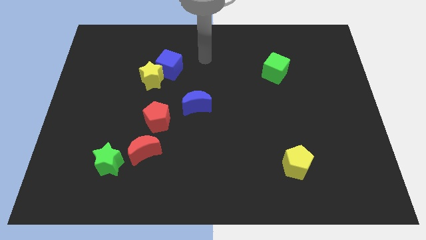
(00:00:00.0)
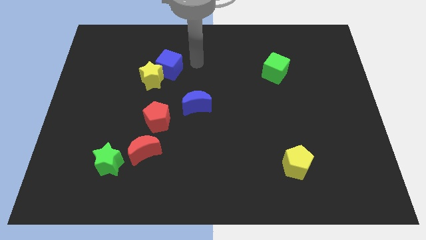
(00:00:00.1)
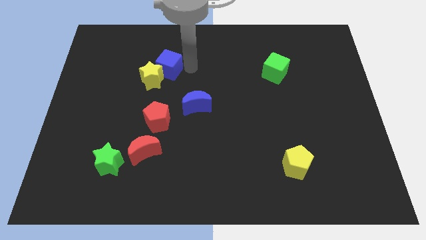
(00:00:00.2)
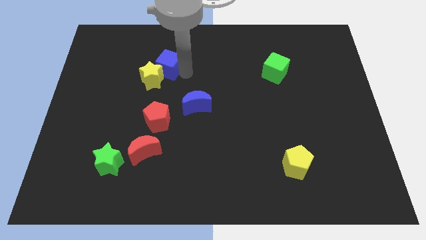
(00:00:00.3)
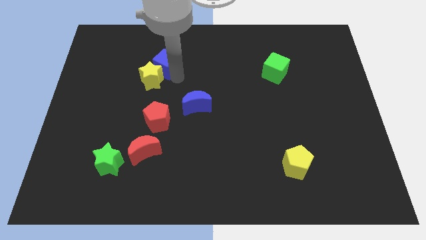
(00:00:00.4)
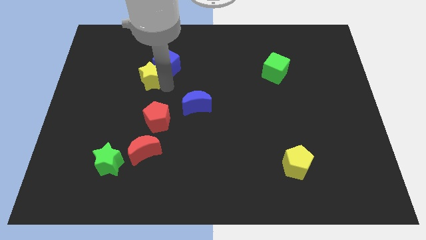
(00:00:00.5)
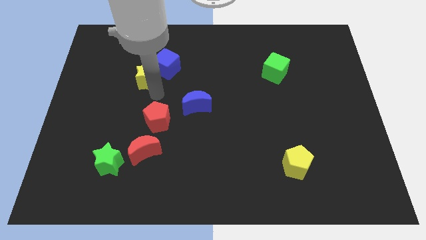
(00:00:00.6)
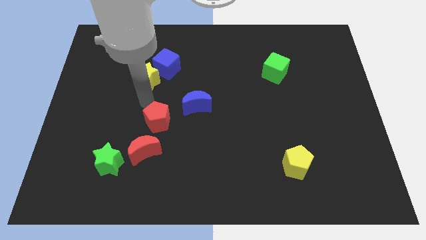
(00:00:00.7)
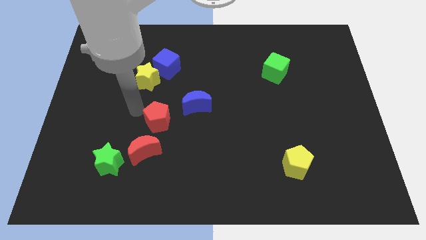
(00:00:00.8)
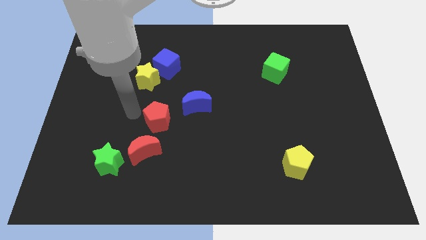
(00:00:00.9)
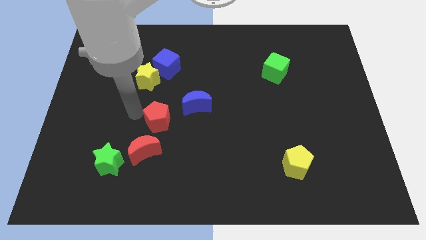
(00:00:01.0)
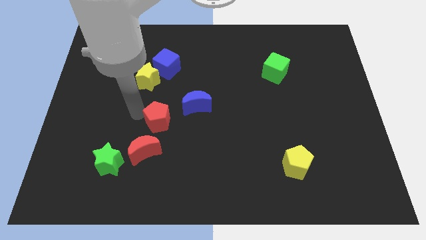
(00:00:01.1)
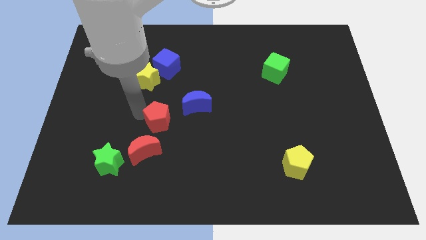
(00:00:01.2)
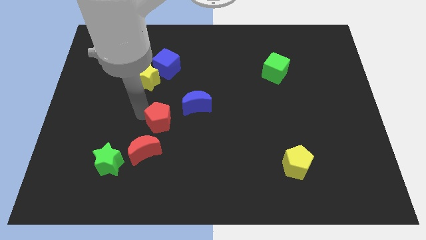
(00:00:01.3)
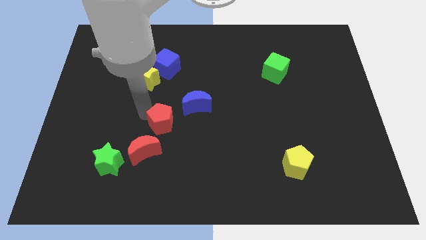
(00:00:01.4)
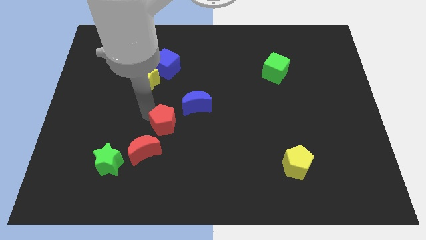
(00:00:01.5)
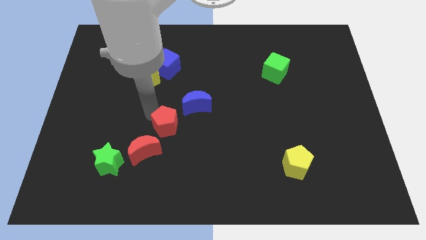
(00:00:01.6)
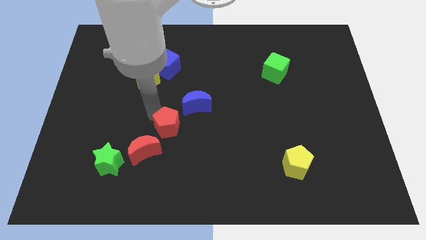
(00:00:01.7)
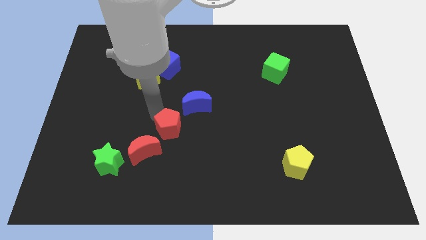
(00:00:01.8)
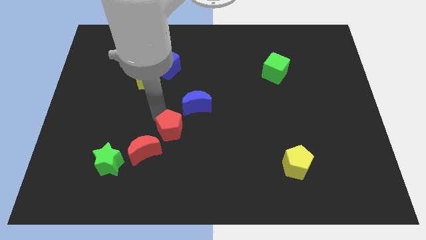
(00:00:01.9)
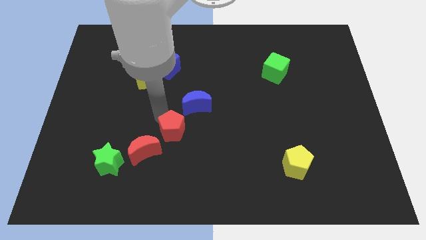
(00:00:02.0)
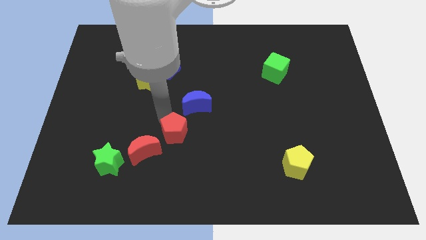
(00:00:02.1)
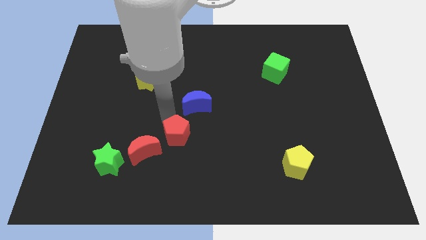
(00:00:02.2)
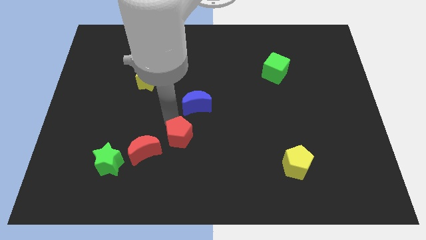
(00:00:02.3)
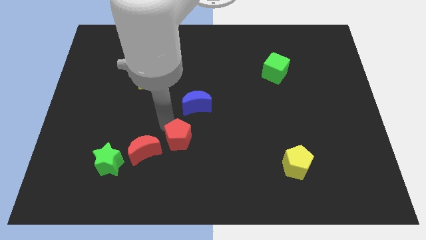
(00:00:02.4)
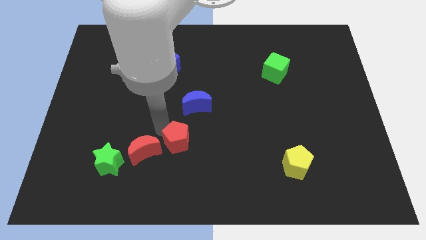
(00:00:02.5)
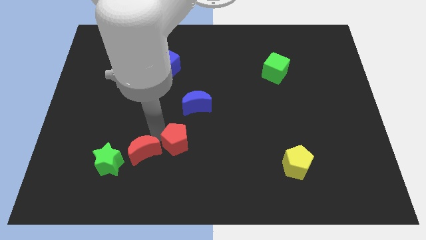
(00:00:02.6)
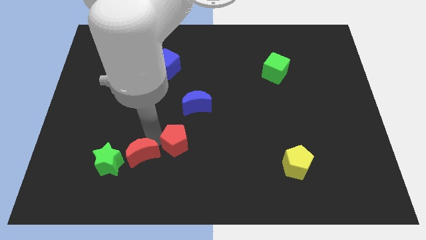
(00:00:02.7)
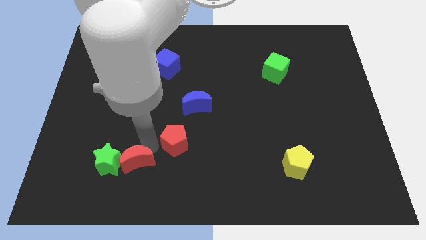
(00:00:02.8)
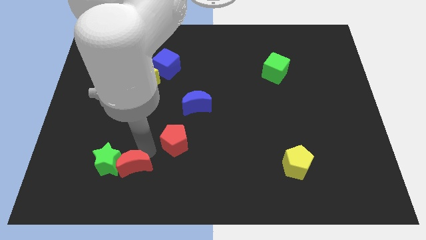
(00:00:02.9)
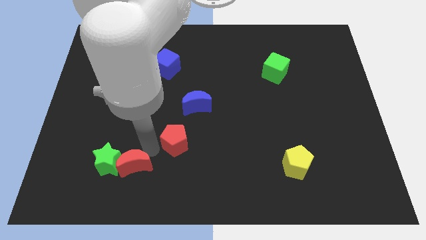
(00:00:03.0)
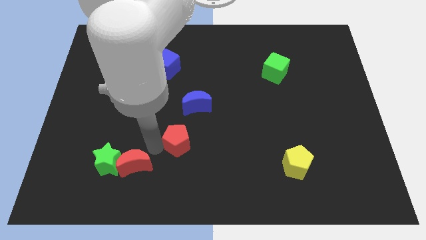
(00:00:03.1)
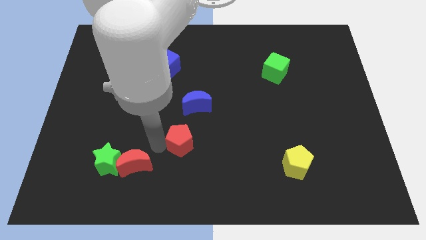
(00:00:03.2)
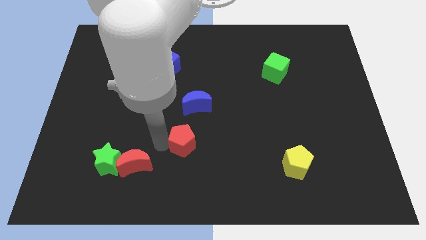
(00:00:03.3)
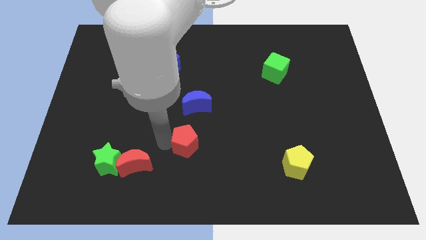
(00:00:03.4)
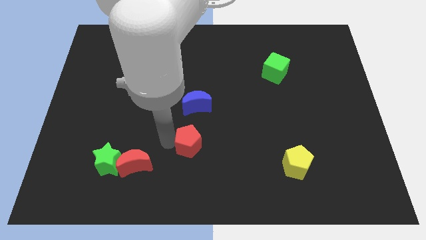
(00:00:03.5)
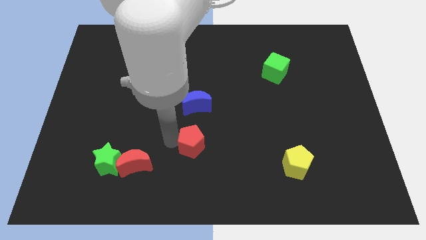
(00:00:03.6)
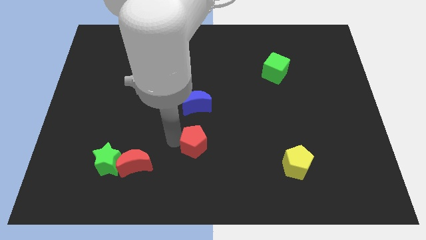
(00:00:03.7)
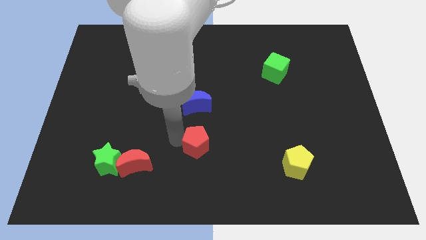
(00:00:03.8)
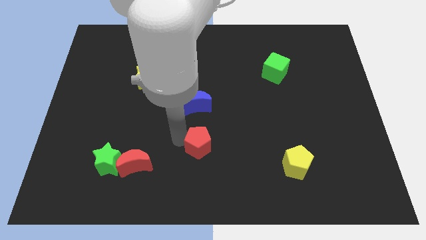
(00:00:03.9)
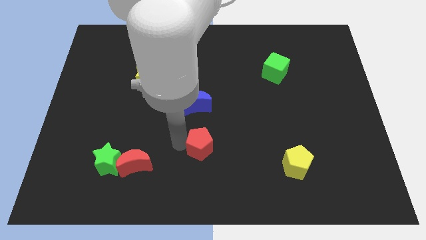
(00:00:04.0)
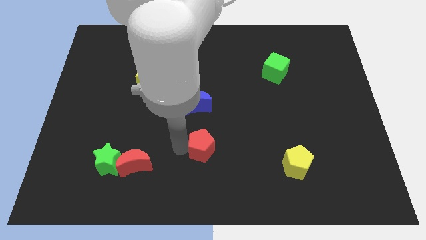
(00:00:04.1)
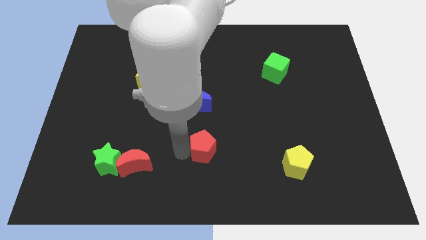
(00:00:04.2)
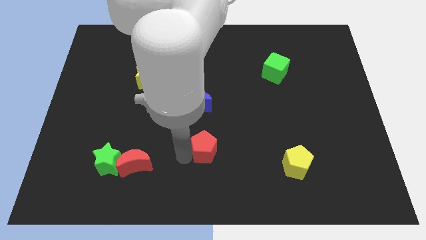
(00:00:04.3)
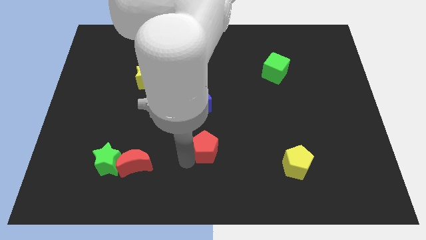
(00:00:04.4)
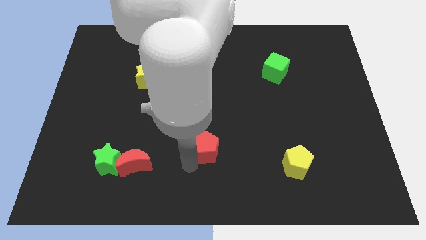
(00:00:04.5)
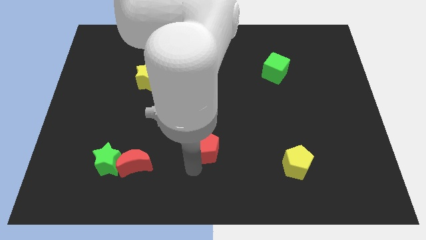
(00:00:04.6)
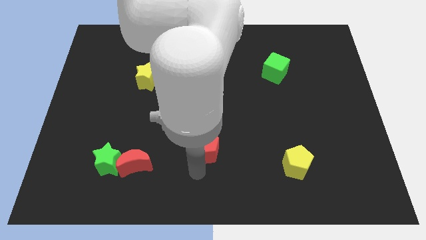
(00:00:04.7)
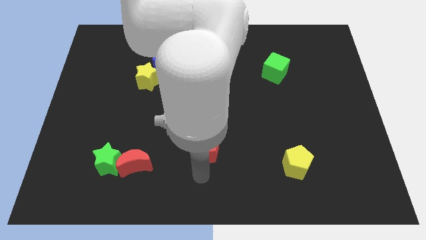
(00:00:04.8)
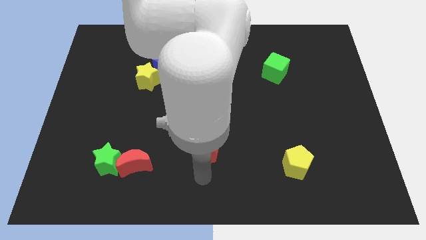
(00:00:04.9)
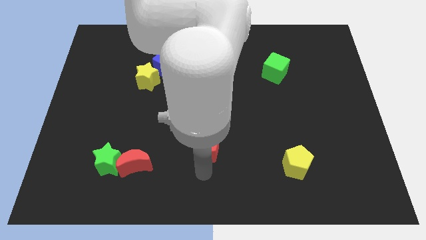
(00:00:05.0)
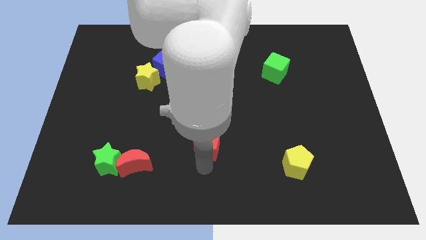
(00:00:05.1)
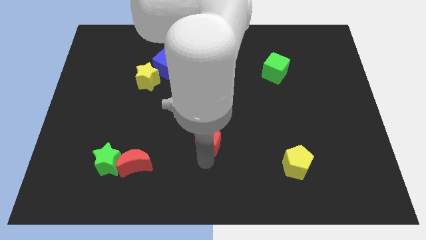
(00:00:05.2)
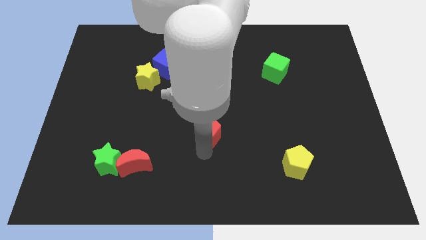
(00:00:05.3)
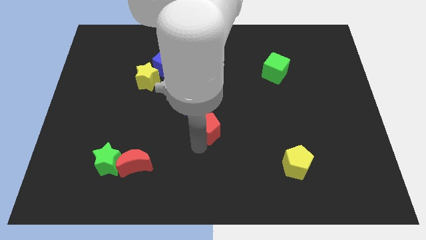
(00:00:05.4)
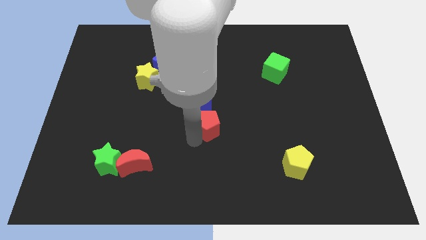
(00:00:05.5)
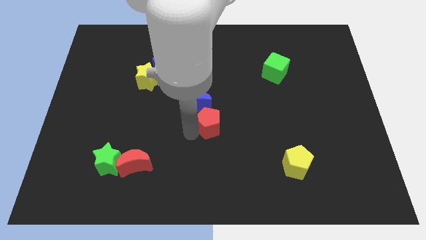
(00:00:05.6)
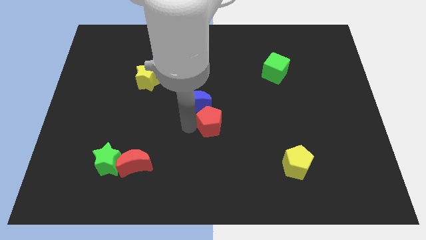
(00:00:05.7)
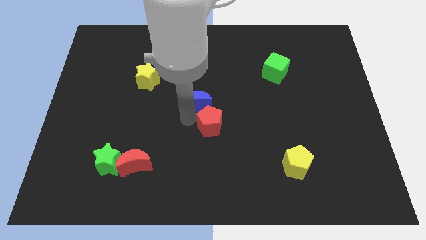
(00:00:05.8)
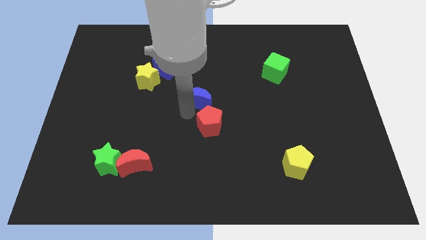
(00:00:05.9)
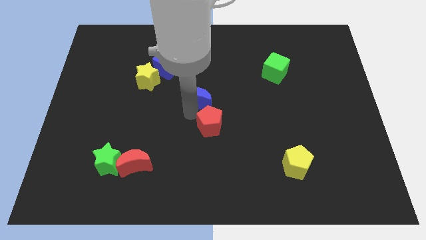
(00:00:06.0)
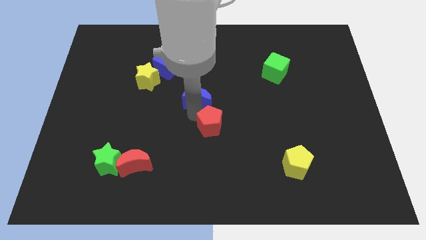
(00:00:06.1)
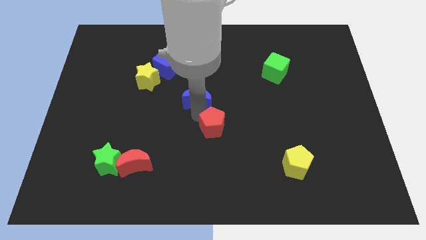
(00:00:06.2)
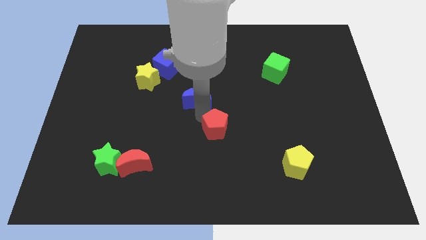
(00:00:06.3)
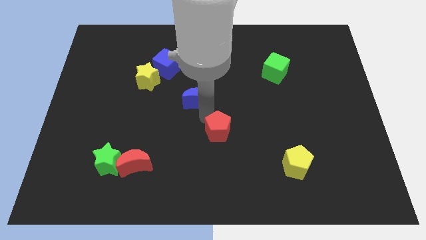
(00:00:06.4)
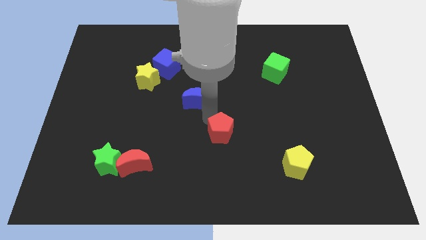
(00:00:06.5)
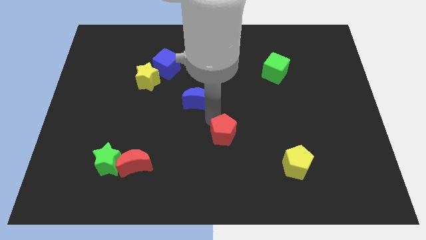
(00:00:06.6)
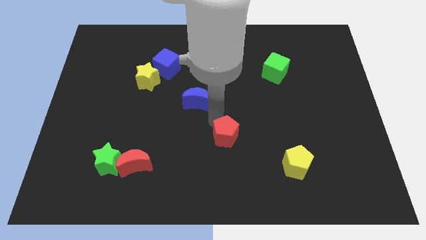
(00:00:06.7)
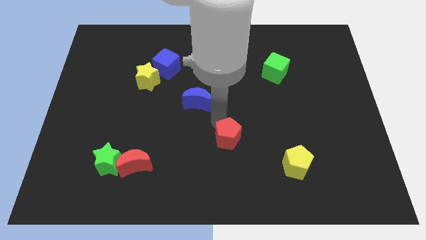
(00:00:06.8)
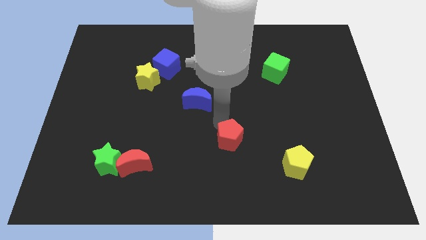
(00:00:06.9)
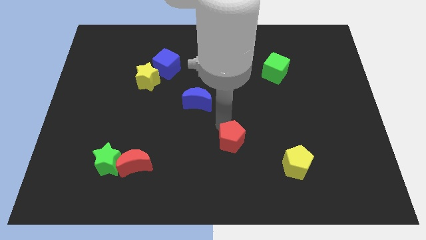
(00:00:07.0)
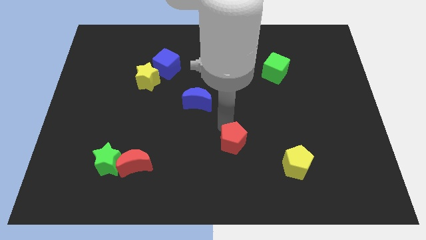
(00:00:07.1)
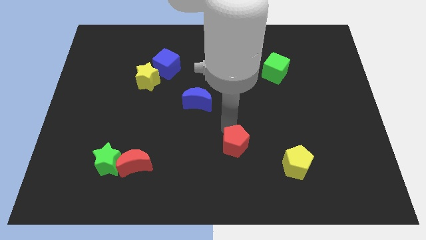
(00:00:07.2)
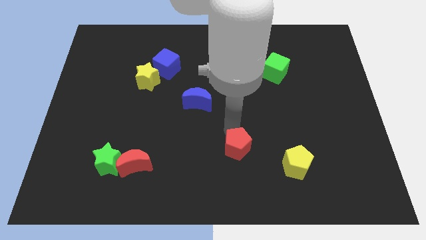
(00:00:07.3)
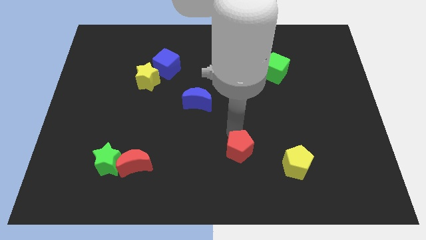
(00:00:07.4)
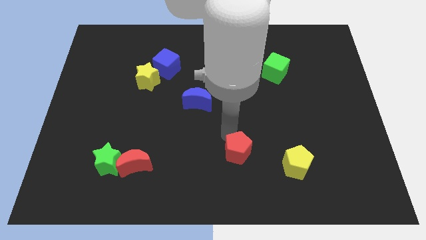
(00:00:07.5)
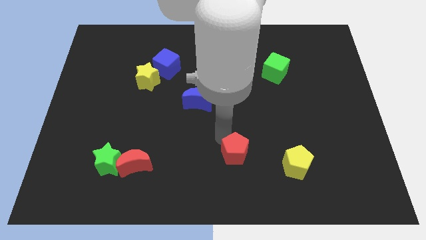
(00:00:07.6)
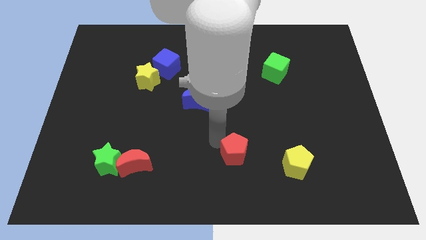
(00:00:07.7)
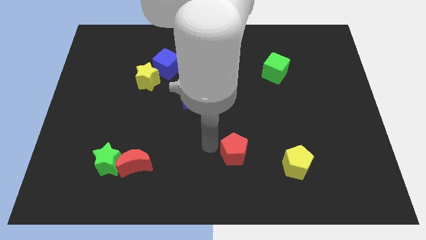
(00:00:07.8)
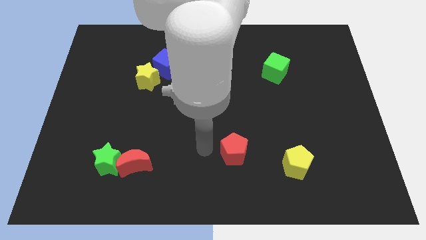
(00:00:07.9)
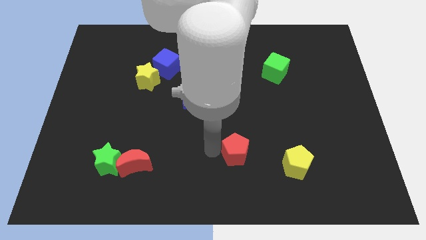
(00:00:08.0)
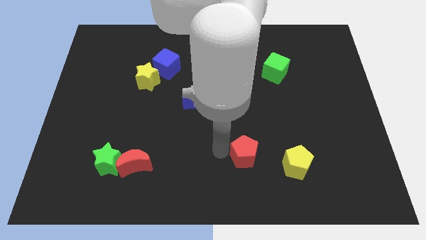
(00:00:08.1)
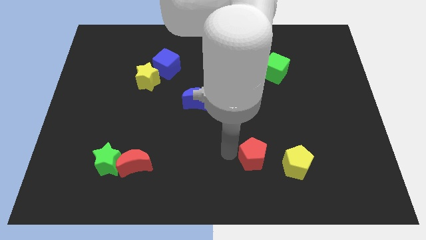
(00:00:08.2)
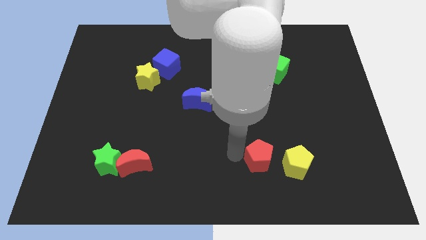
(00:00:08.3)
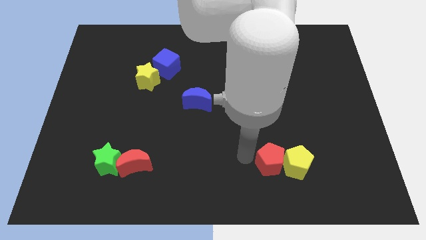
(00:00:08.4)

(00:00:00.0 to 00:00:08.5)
slide the red pentagon close to the yellow pentagon
